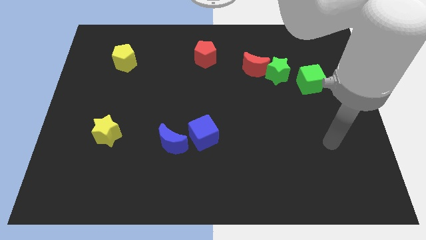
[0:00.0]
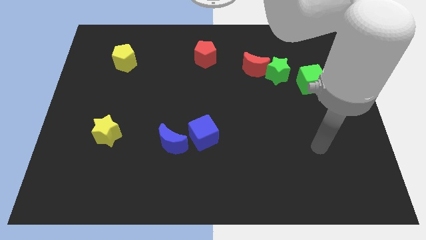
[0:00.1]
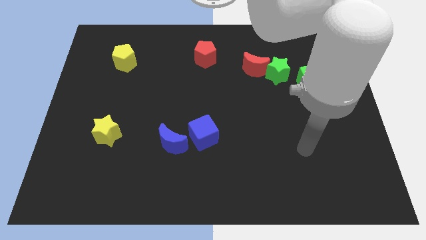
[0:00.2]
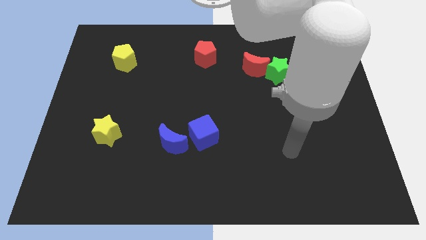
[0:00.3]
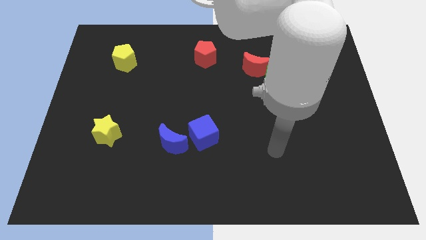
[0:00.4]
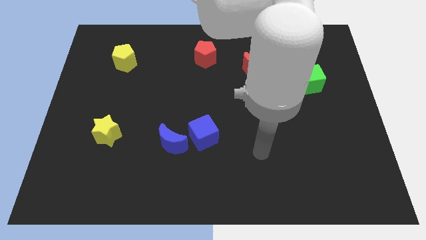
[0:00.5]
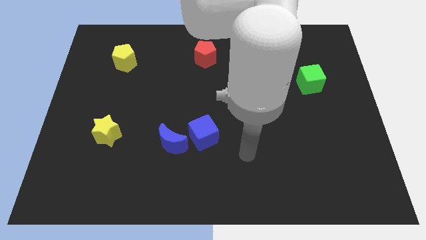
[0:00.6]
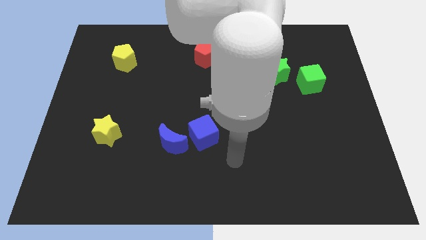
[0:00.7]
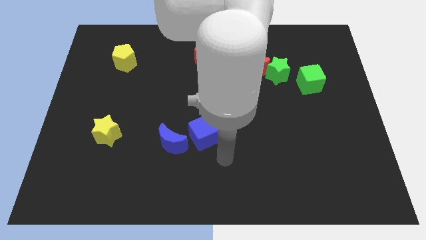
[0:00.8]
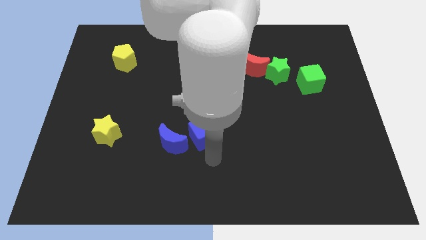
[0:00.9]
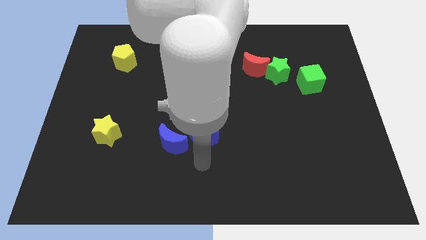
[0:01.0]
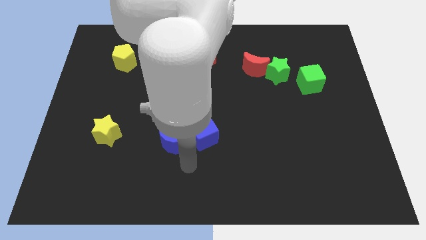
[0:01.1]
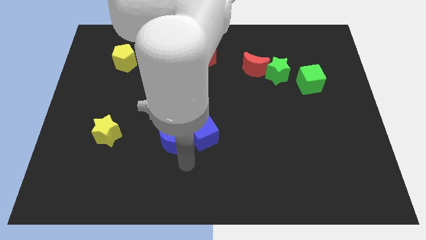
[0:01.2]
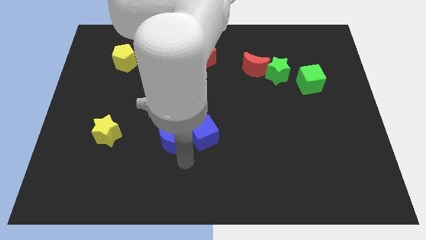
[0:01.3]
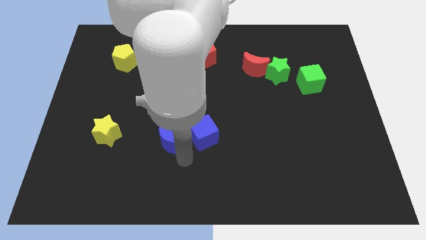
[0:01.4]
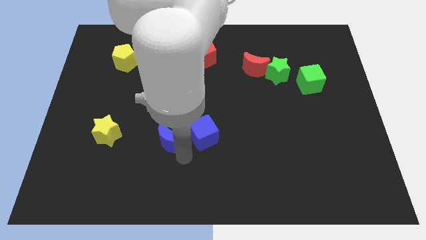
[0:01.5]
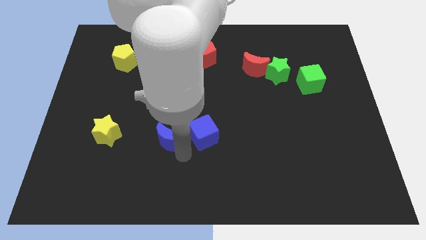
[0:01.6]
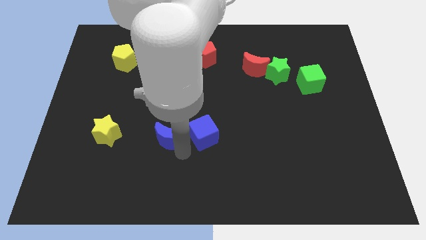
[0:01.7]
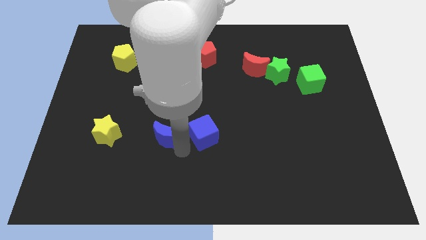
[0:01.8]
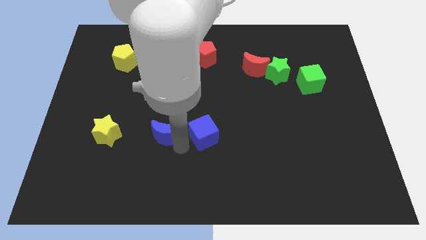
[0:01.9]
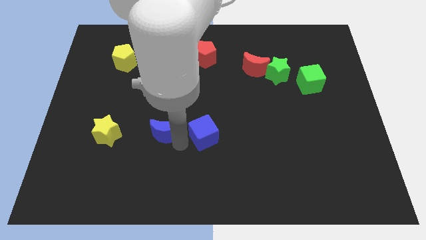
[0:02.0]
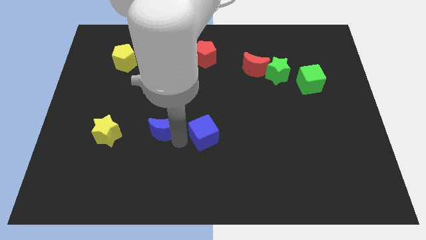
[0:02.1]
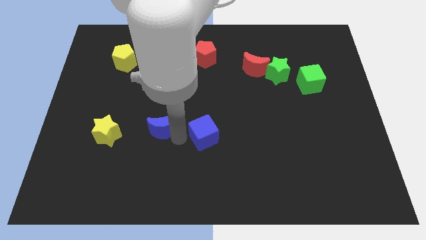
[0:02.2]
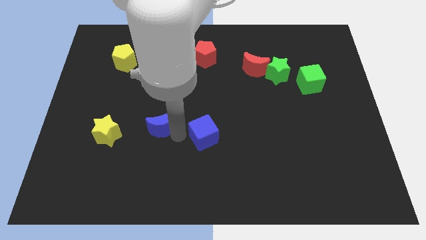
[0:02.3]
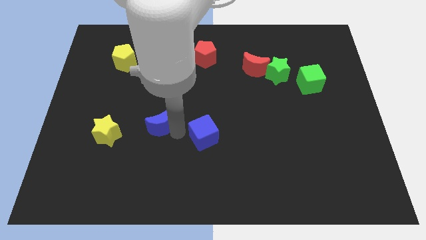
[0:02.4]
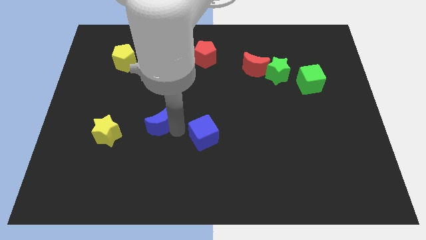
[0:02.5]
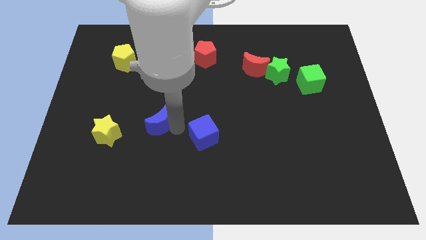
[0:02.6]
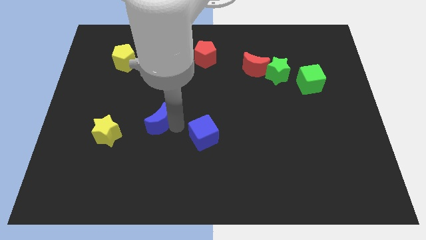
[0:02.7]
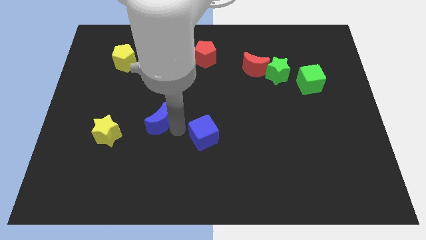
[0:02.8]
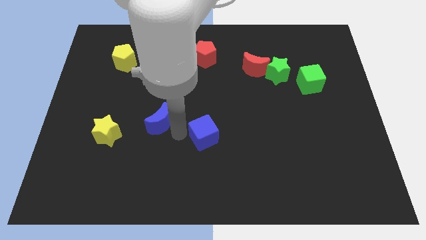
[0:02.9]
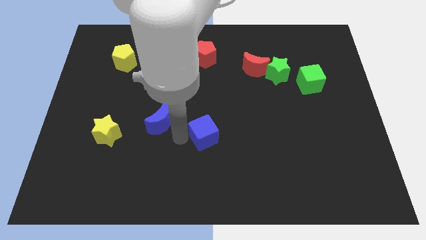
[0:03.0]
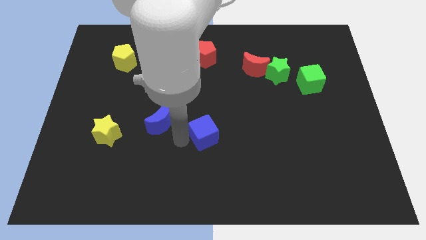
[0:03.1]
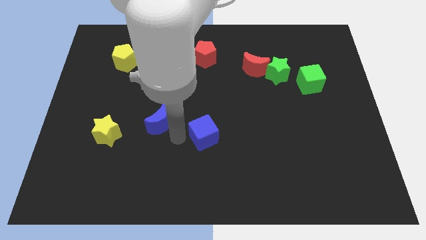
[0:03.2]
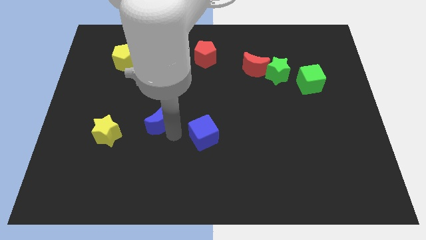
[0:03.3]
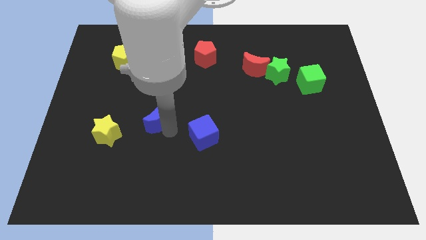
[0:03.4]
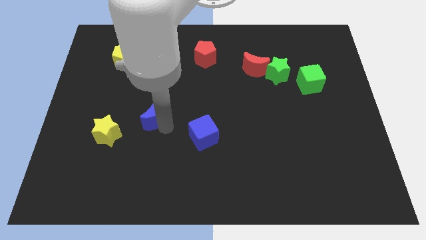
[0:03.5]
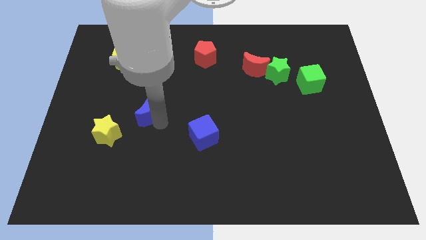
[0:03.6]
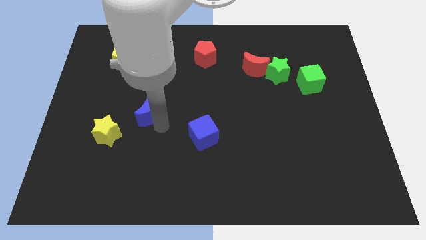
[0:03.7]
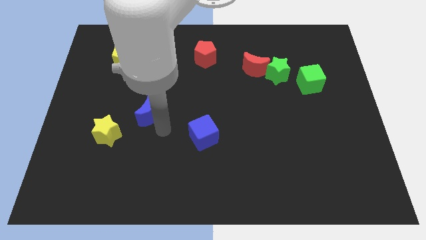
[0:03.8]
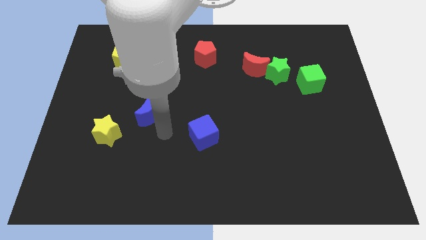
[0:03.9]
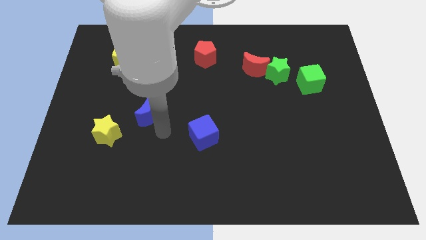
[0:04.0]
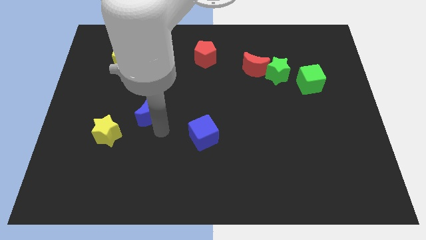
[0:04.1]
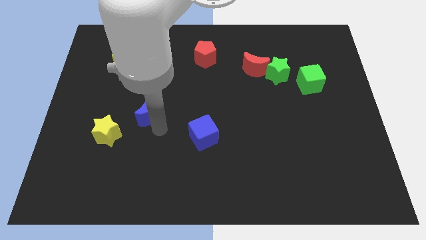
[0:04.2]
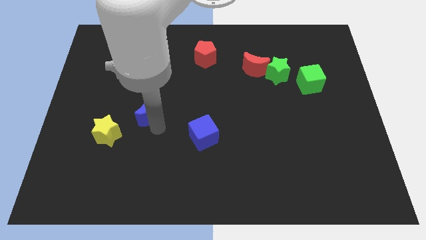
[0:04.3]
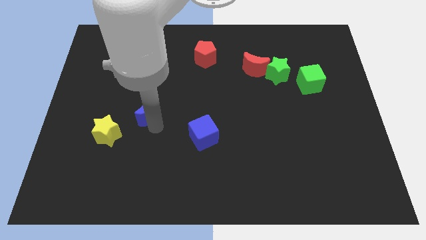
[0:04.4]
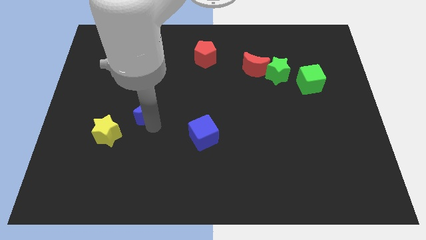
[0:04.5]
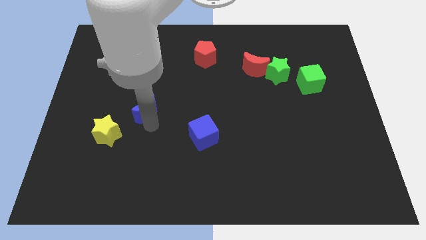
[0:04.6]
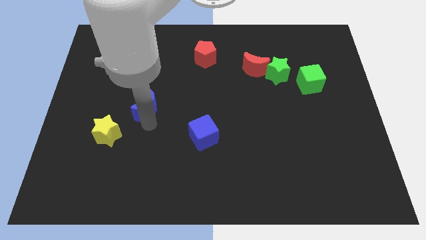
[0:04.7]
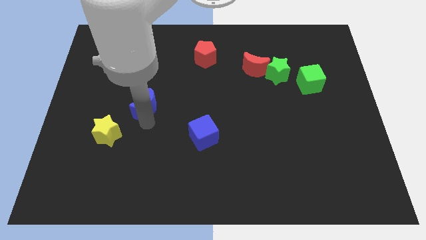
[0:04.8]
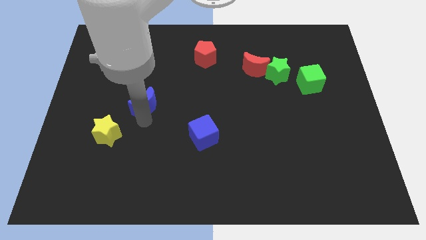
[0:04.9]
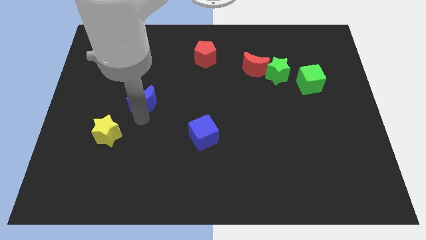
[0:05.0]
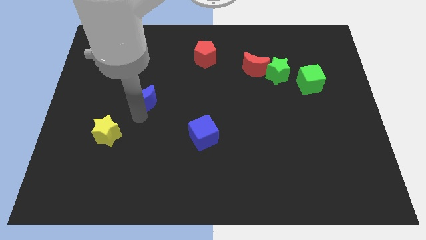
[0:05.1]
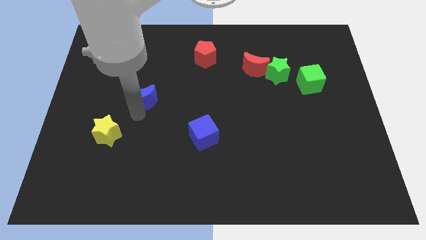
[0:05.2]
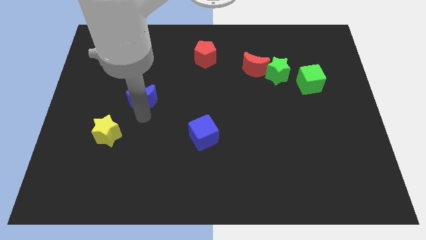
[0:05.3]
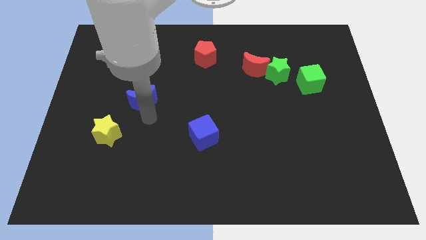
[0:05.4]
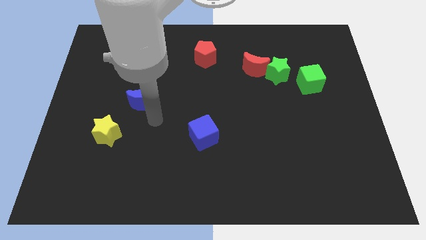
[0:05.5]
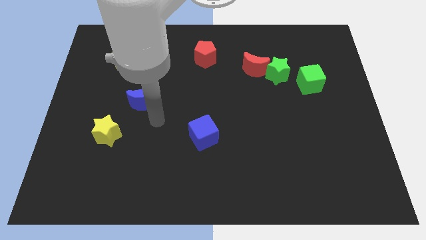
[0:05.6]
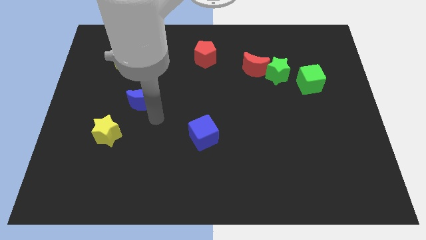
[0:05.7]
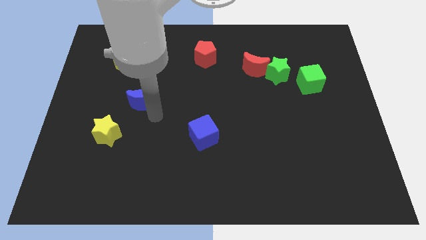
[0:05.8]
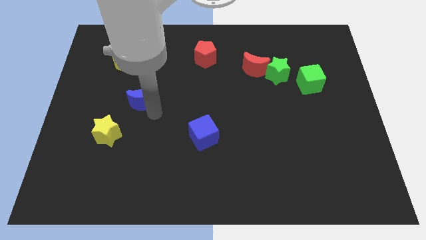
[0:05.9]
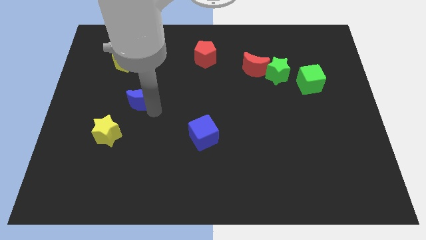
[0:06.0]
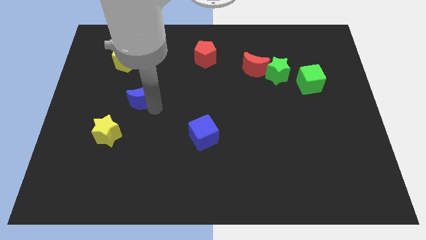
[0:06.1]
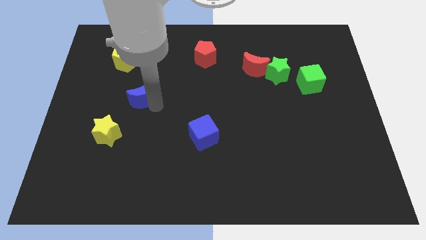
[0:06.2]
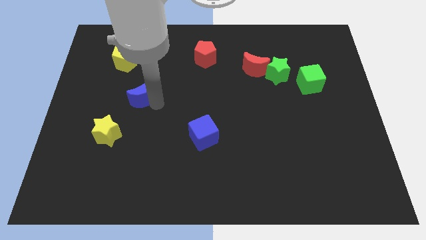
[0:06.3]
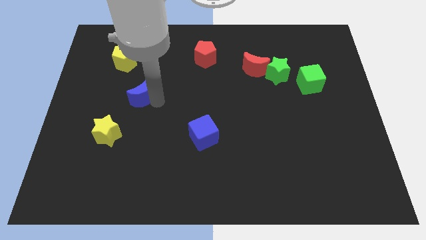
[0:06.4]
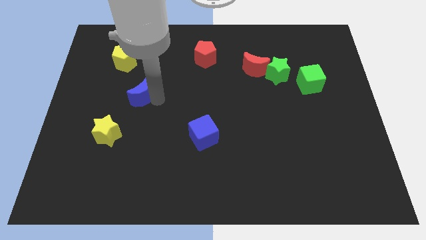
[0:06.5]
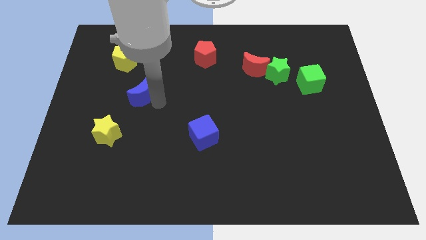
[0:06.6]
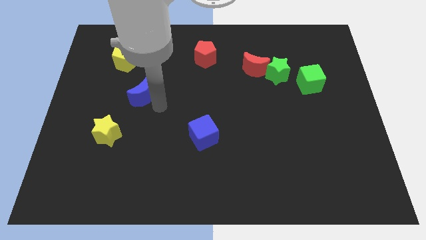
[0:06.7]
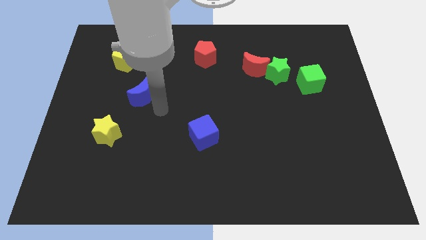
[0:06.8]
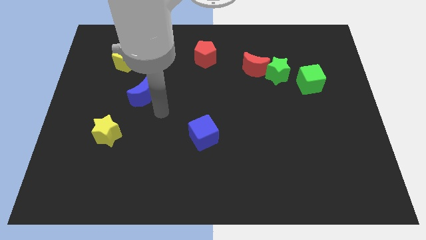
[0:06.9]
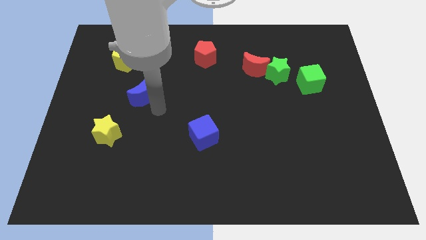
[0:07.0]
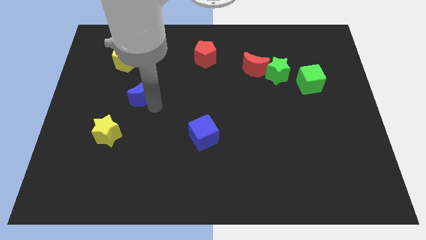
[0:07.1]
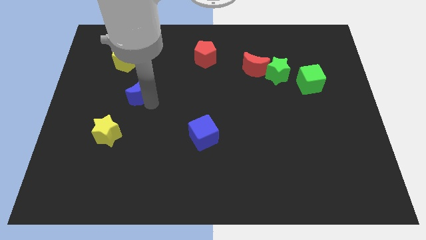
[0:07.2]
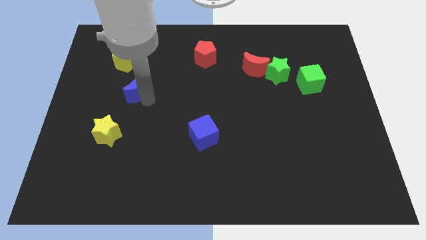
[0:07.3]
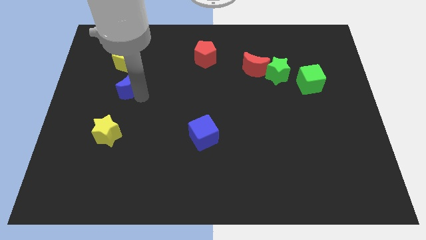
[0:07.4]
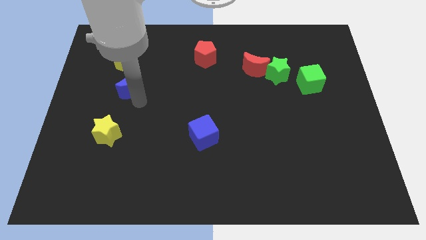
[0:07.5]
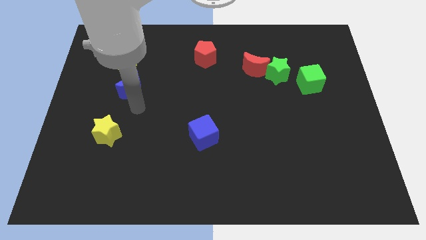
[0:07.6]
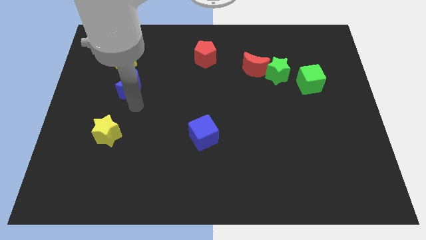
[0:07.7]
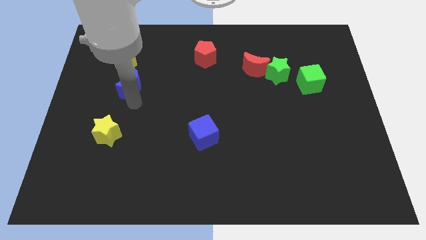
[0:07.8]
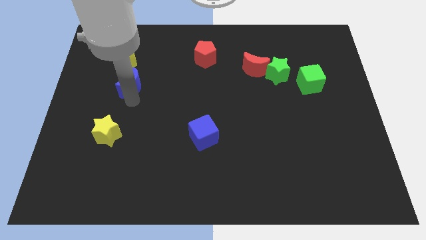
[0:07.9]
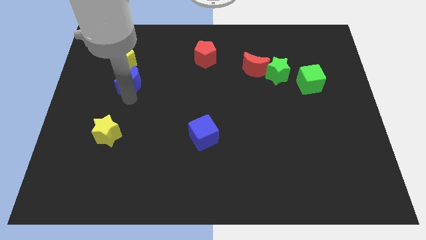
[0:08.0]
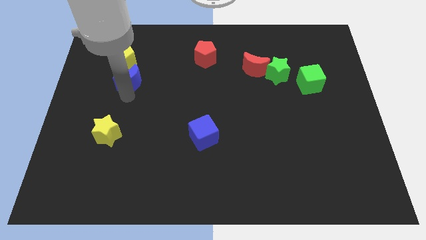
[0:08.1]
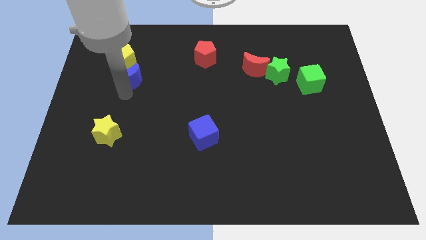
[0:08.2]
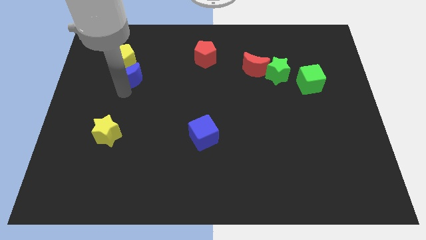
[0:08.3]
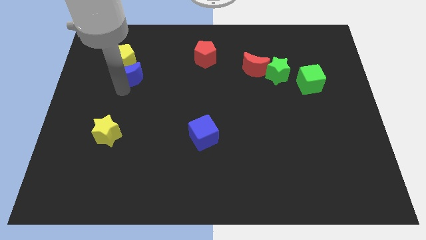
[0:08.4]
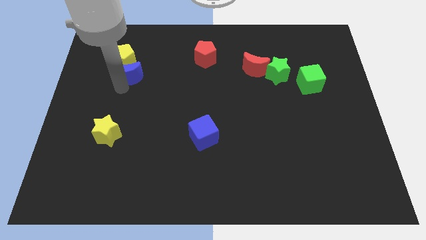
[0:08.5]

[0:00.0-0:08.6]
slide the blue moon next to the yellow pentagon
